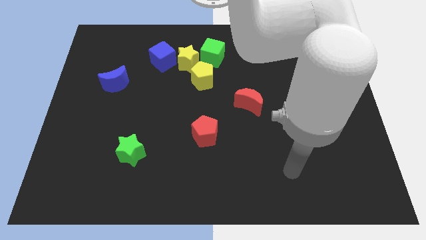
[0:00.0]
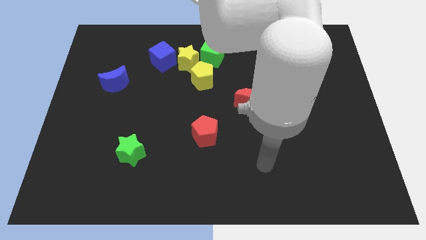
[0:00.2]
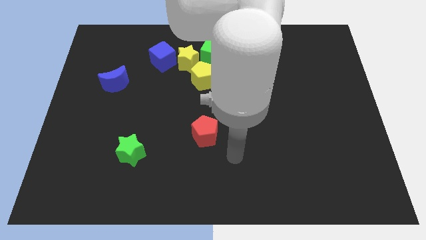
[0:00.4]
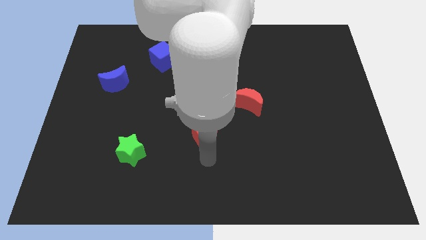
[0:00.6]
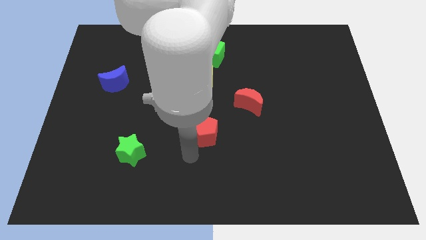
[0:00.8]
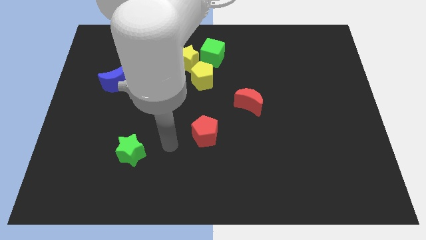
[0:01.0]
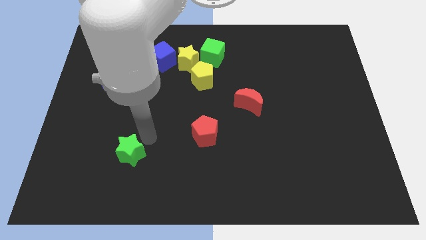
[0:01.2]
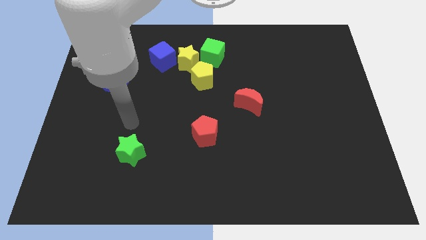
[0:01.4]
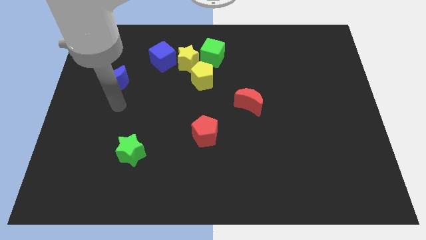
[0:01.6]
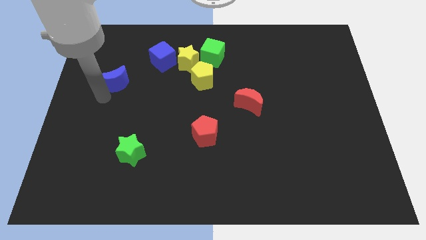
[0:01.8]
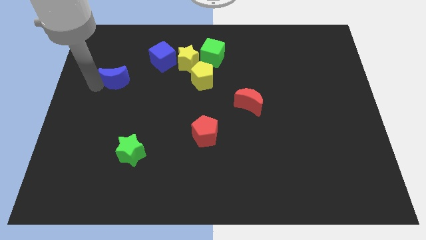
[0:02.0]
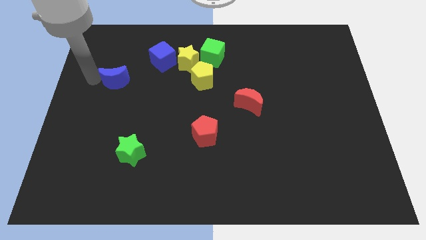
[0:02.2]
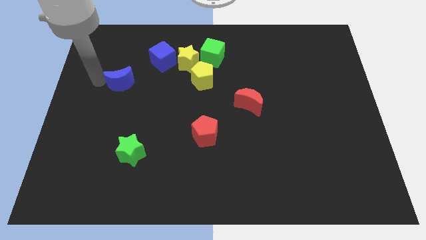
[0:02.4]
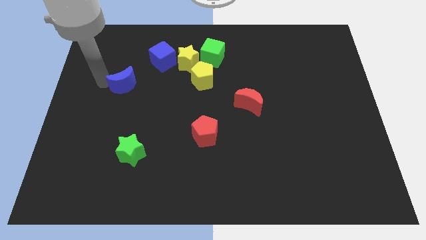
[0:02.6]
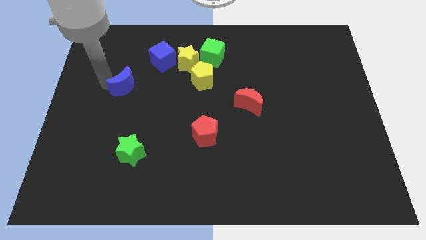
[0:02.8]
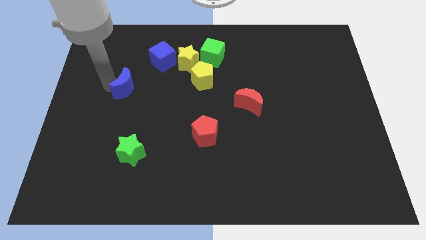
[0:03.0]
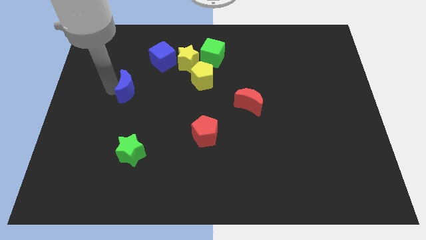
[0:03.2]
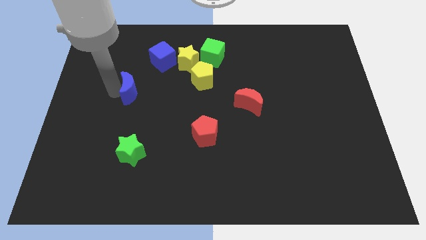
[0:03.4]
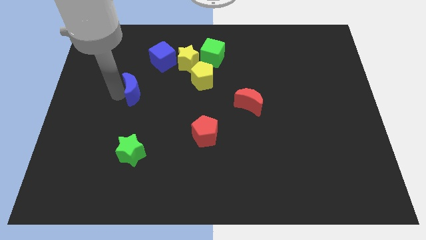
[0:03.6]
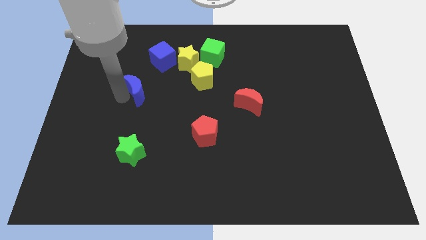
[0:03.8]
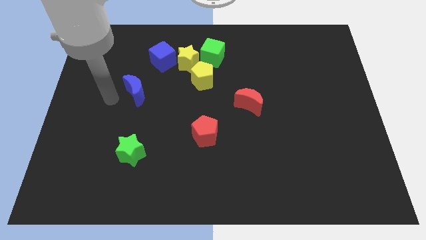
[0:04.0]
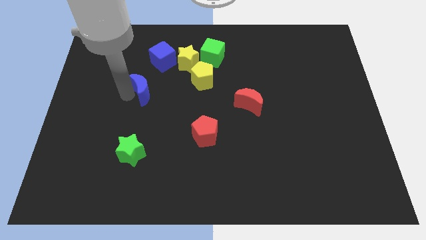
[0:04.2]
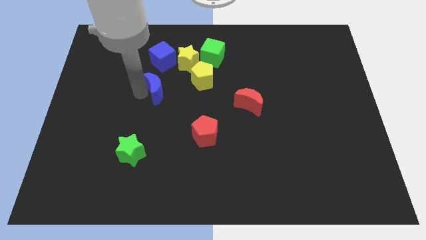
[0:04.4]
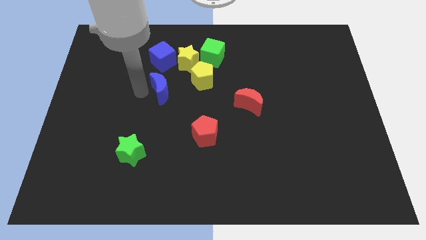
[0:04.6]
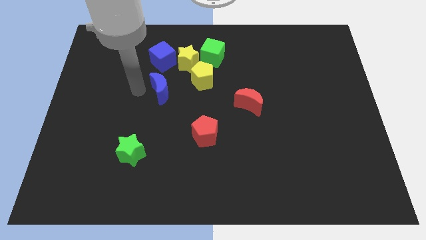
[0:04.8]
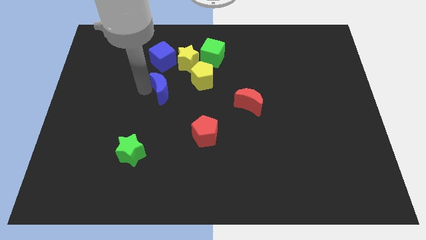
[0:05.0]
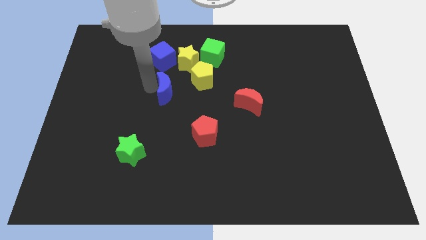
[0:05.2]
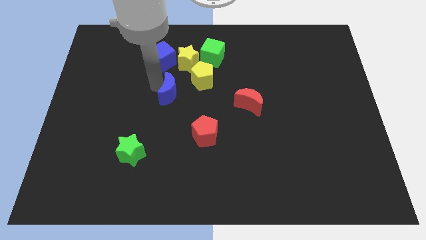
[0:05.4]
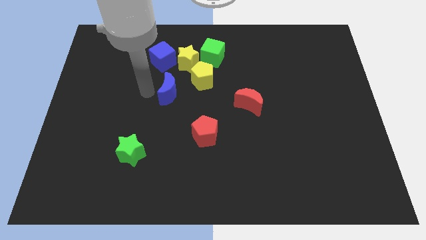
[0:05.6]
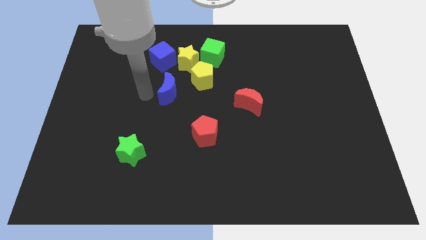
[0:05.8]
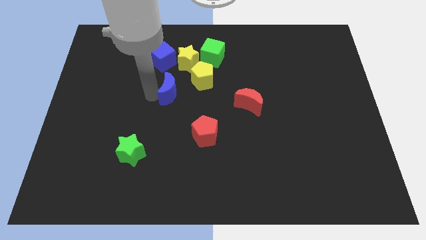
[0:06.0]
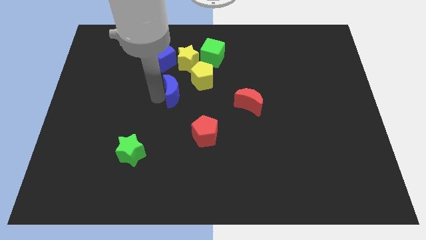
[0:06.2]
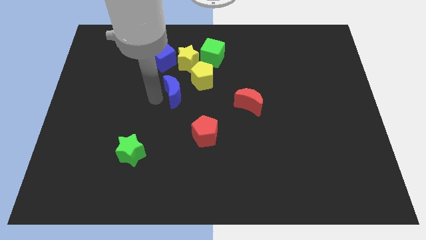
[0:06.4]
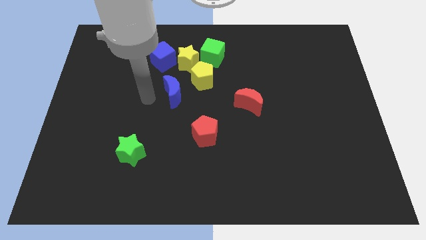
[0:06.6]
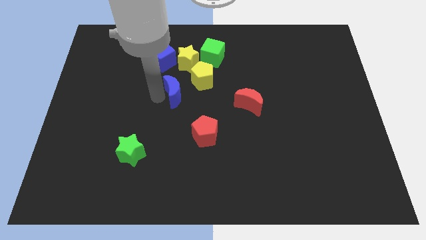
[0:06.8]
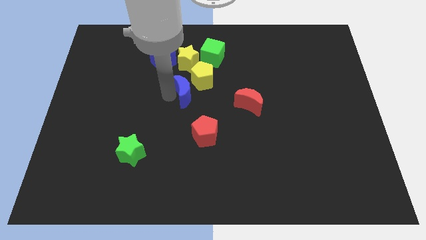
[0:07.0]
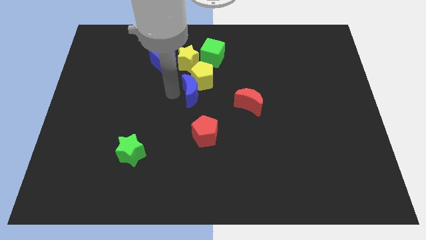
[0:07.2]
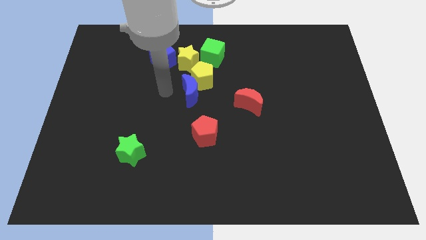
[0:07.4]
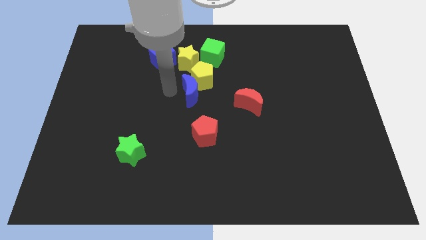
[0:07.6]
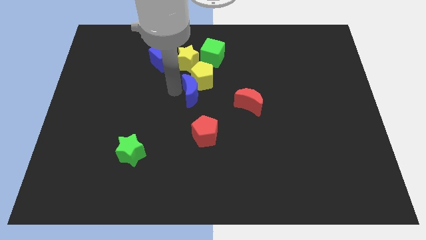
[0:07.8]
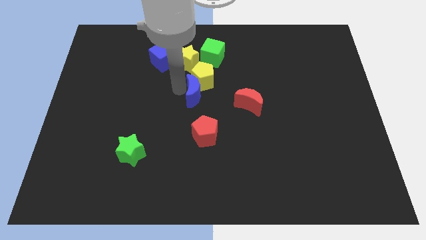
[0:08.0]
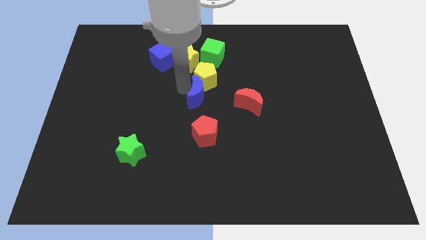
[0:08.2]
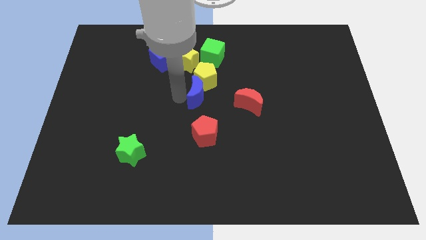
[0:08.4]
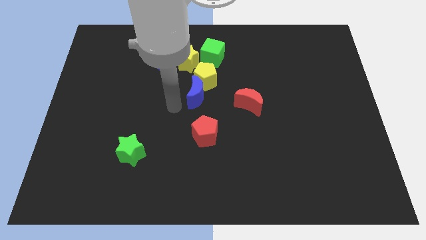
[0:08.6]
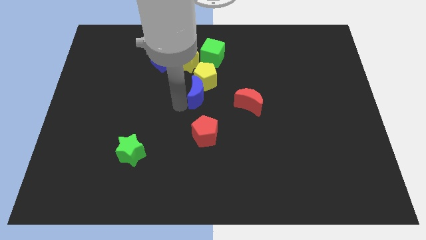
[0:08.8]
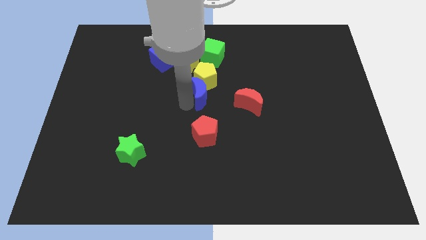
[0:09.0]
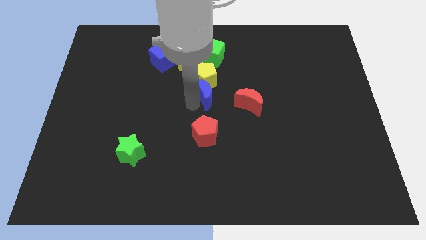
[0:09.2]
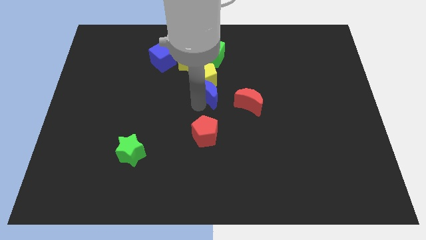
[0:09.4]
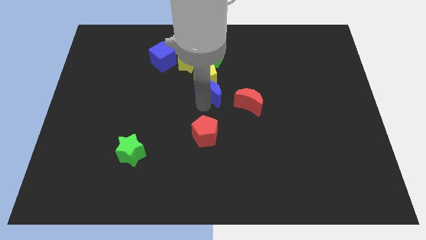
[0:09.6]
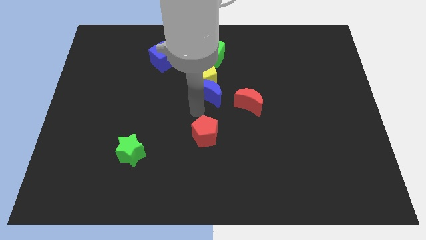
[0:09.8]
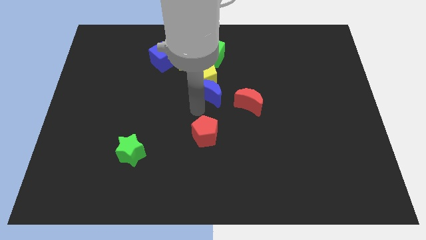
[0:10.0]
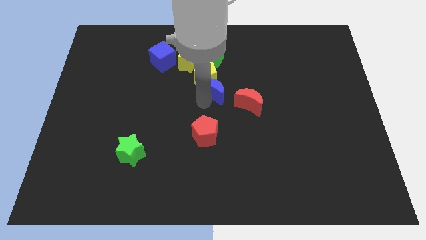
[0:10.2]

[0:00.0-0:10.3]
put the blue moon to the bottom right side of the yellow star

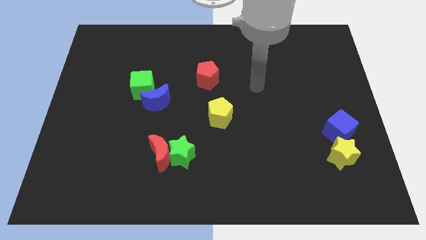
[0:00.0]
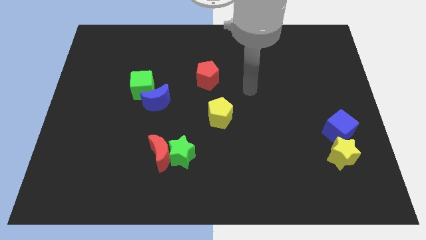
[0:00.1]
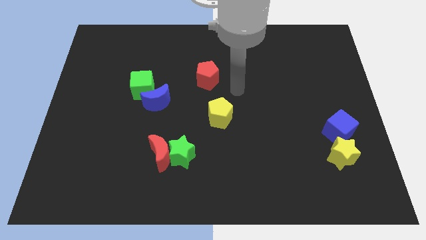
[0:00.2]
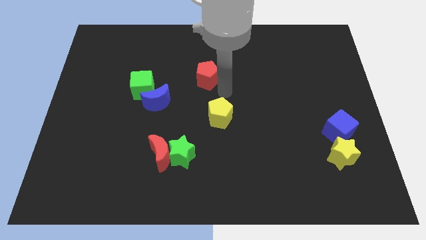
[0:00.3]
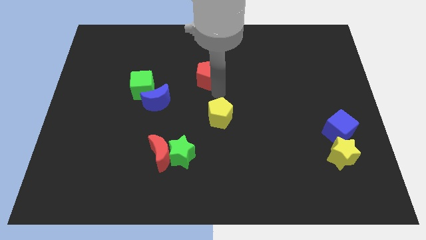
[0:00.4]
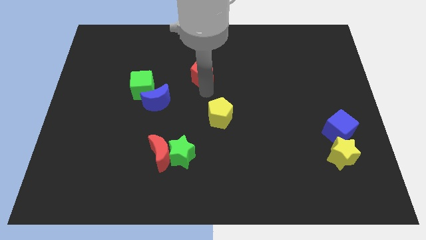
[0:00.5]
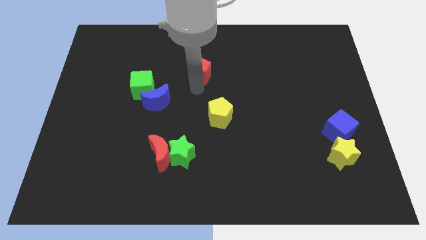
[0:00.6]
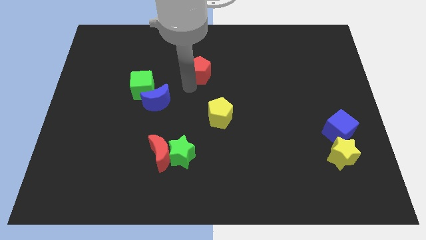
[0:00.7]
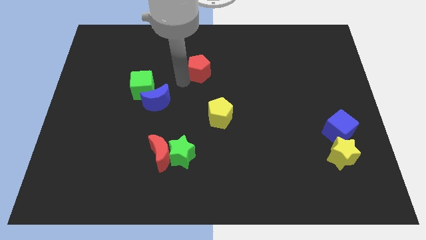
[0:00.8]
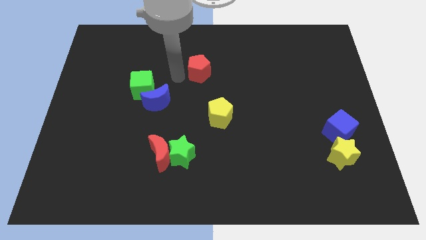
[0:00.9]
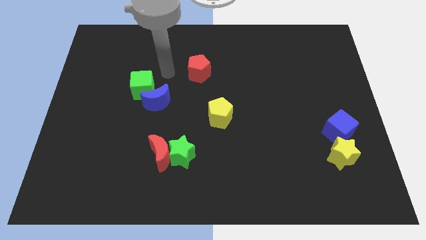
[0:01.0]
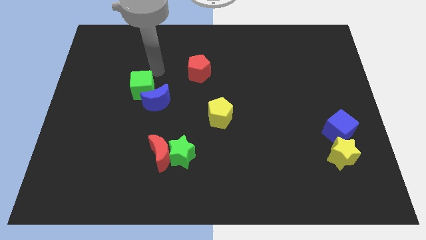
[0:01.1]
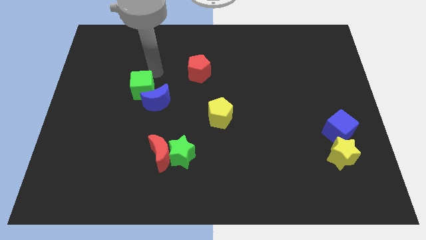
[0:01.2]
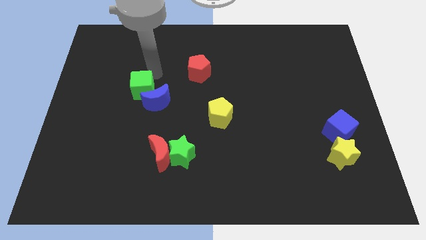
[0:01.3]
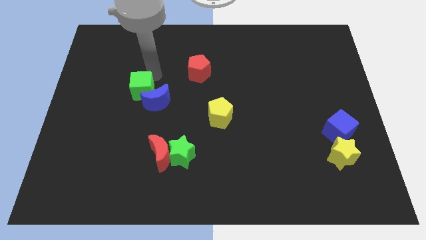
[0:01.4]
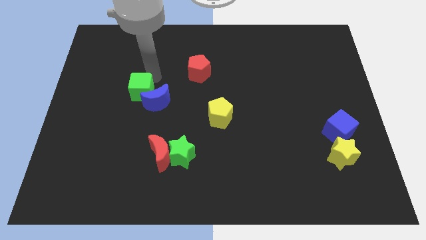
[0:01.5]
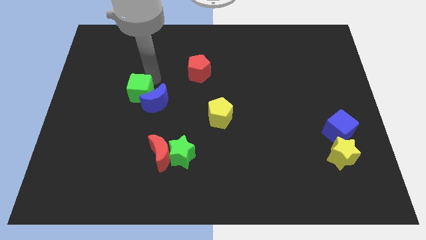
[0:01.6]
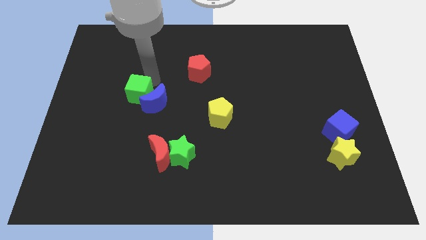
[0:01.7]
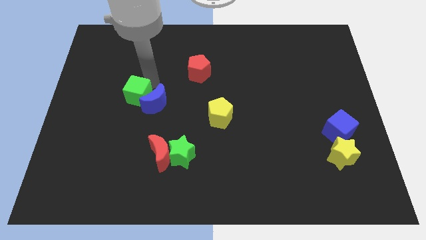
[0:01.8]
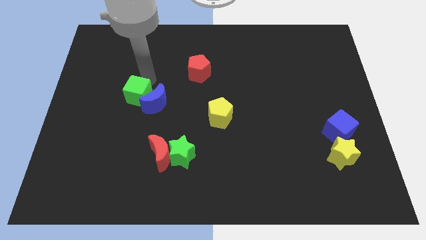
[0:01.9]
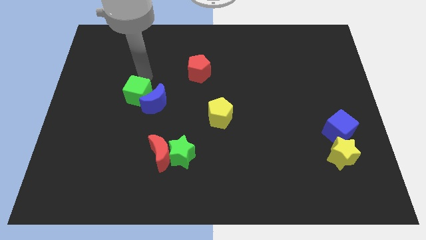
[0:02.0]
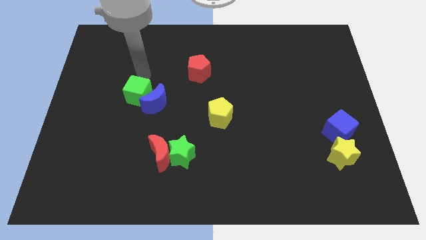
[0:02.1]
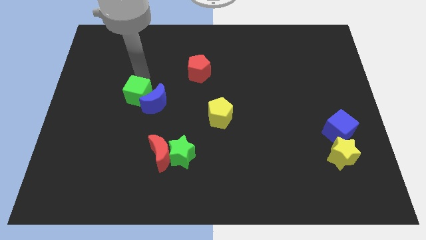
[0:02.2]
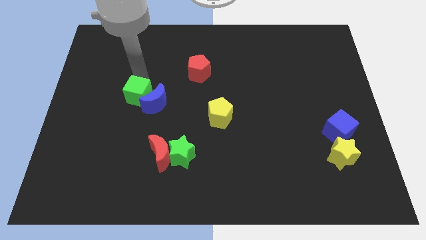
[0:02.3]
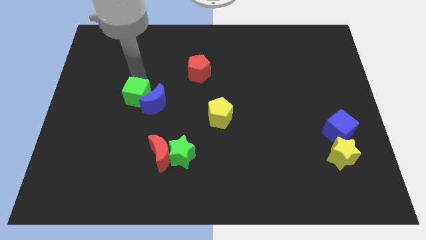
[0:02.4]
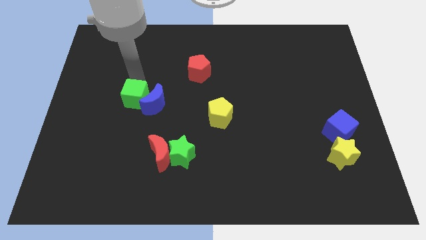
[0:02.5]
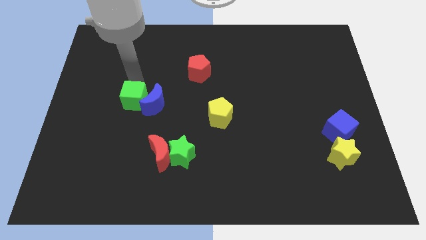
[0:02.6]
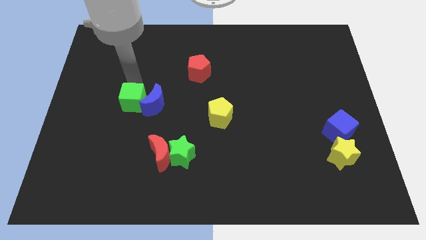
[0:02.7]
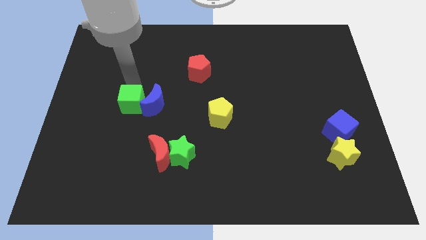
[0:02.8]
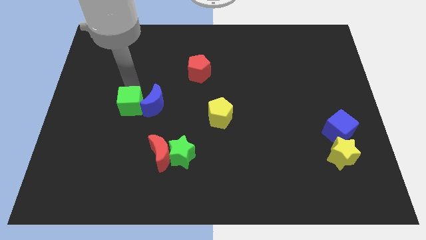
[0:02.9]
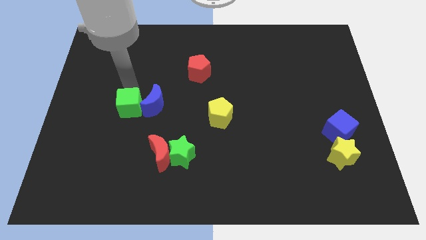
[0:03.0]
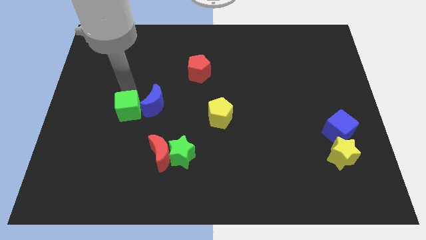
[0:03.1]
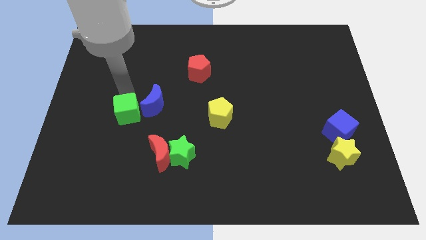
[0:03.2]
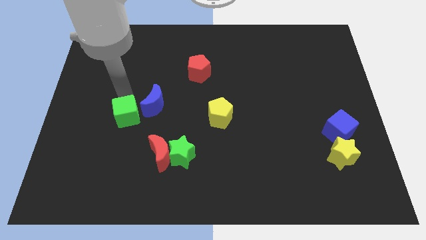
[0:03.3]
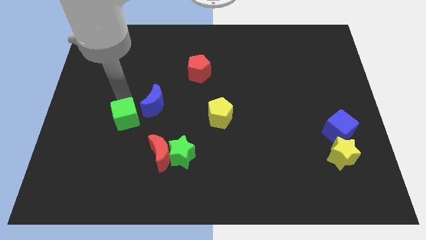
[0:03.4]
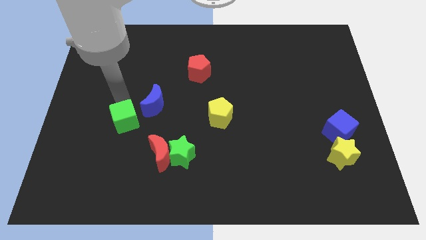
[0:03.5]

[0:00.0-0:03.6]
put the green cube diagonally up and to the left of the red moon
